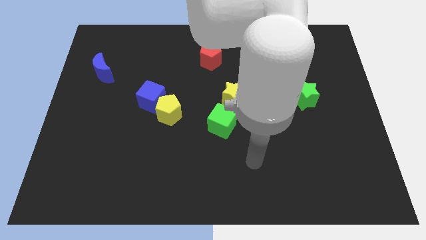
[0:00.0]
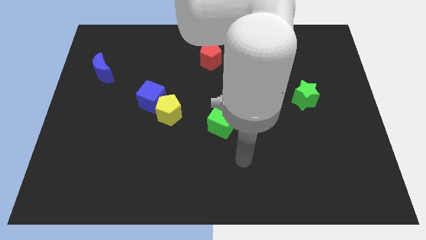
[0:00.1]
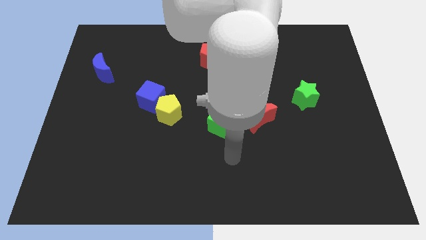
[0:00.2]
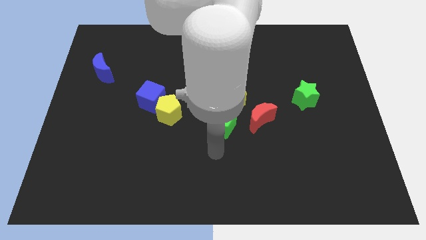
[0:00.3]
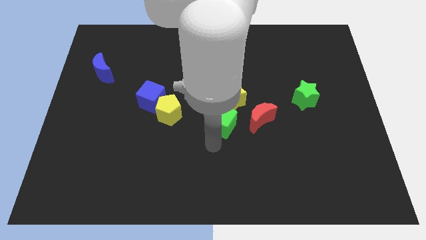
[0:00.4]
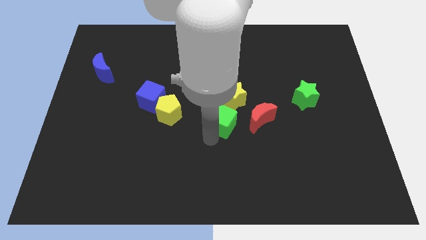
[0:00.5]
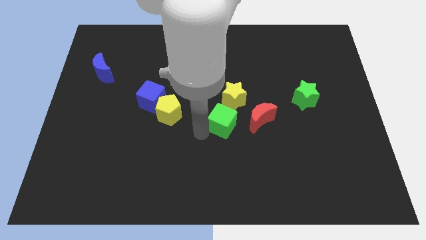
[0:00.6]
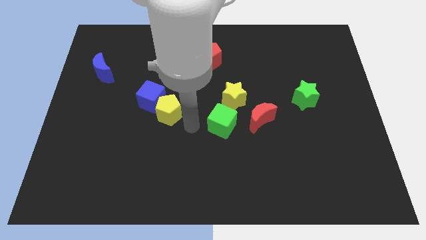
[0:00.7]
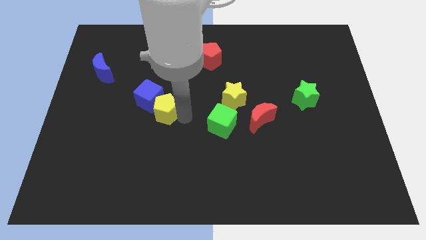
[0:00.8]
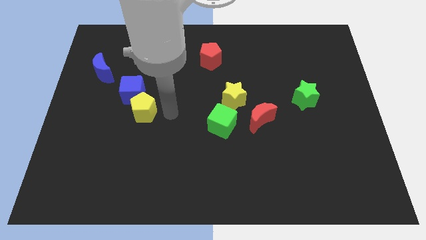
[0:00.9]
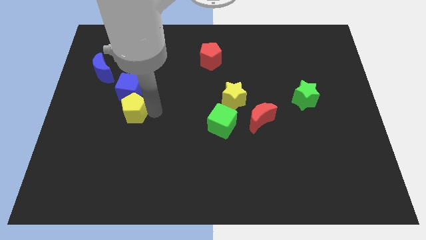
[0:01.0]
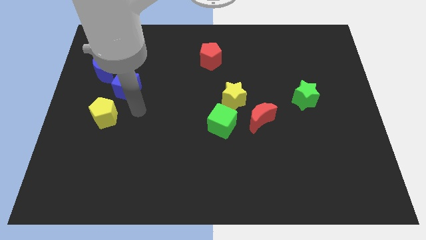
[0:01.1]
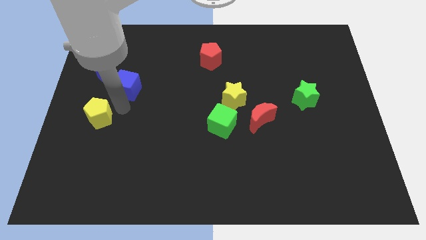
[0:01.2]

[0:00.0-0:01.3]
move the blue cube away from the yellow pentagon

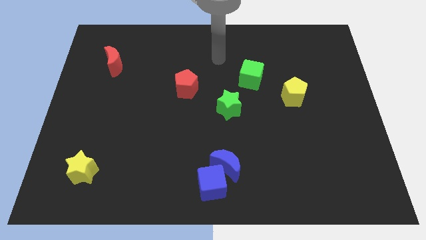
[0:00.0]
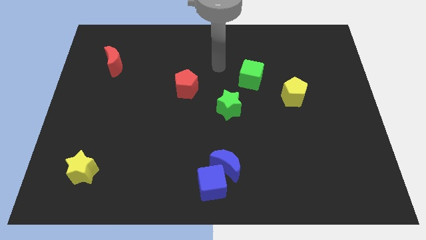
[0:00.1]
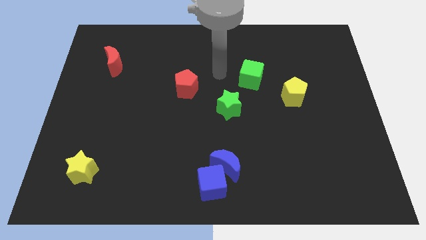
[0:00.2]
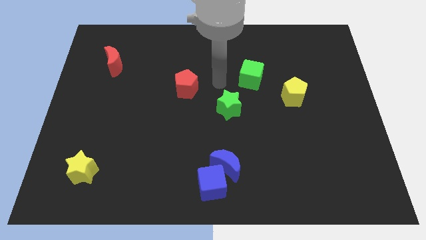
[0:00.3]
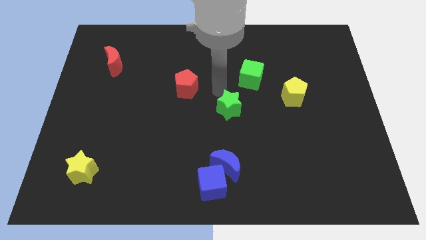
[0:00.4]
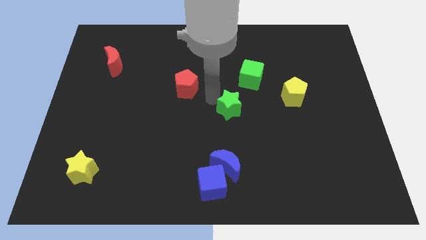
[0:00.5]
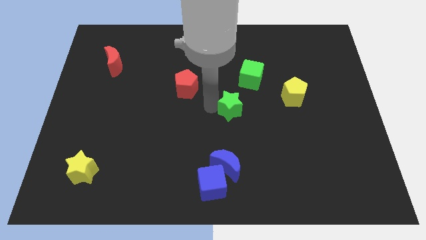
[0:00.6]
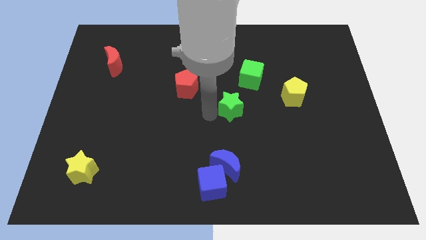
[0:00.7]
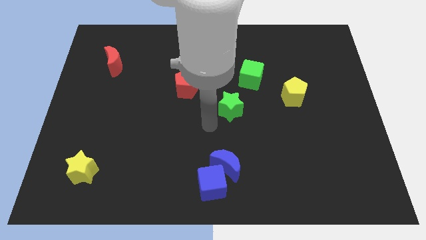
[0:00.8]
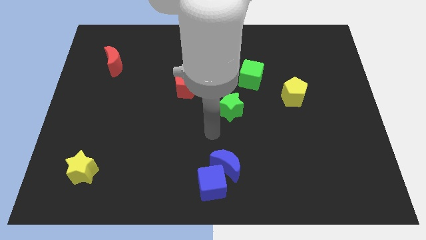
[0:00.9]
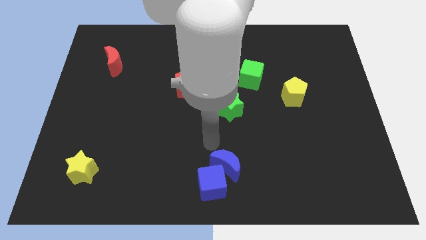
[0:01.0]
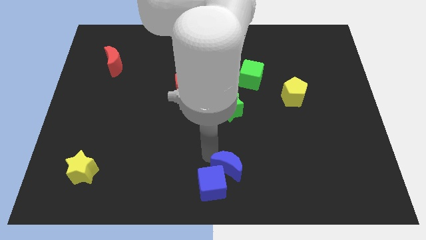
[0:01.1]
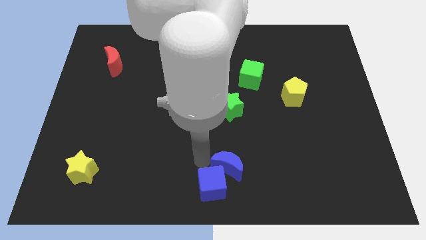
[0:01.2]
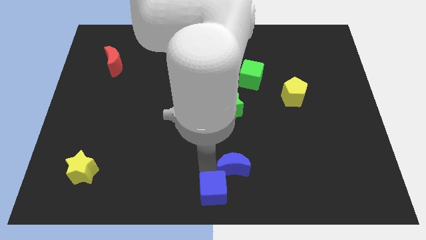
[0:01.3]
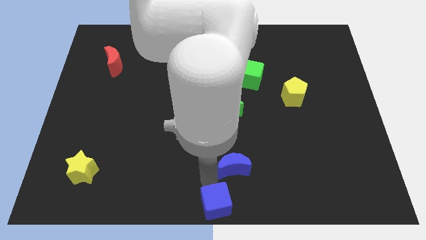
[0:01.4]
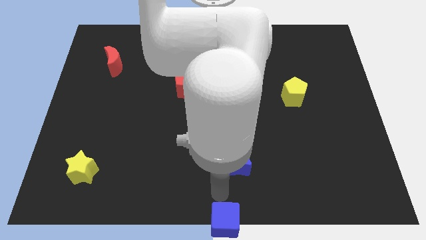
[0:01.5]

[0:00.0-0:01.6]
pull the blue moon apart from the blue cube

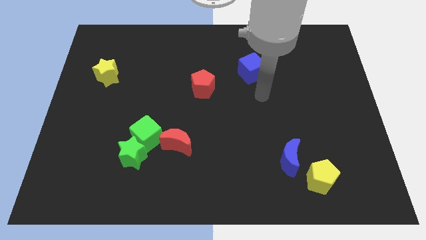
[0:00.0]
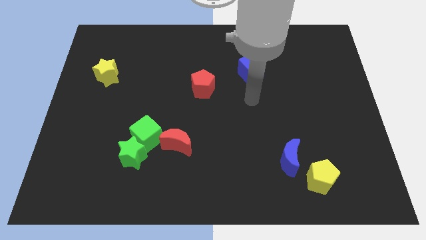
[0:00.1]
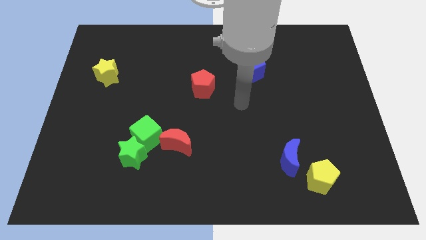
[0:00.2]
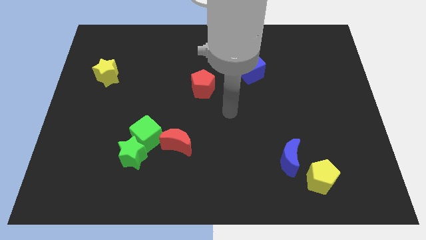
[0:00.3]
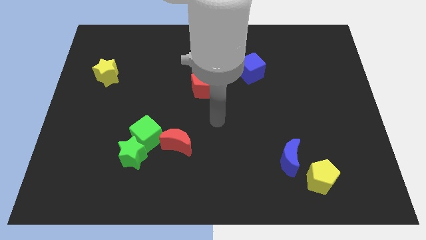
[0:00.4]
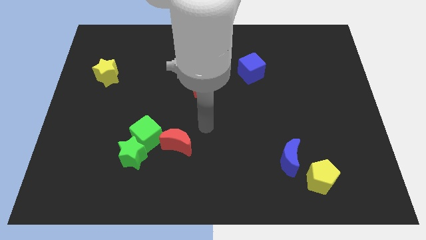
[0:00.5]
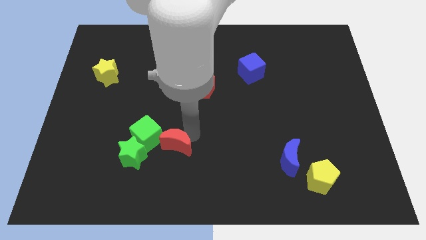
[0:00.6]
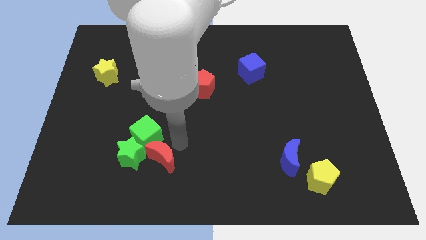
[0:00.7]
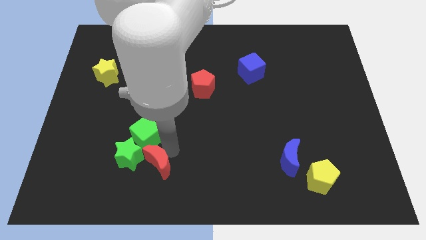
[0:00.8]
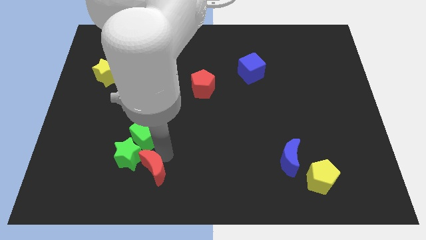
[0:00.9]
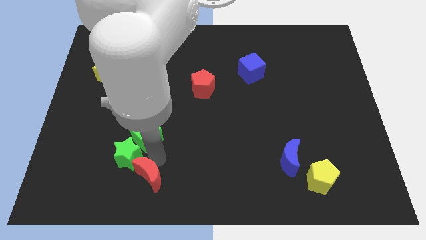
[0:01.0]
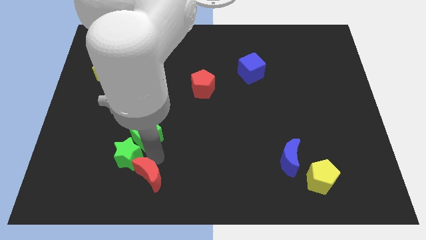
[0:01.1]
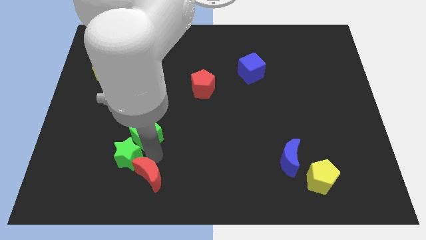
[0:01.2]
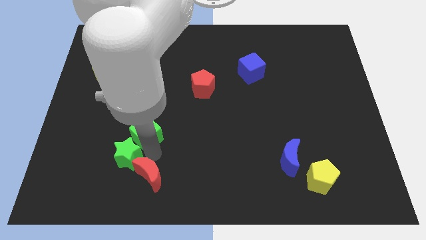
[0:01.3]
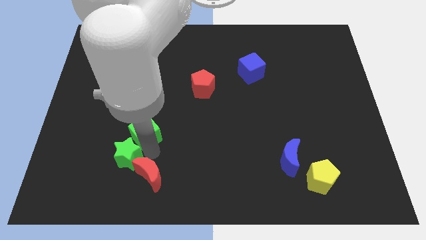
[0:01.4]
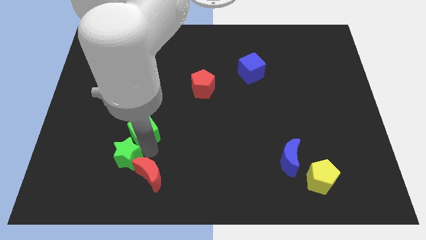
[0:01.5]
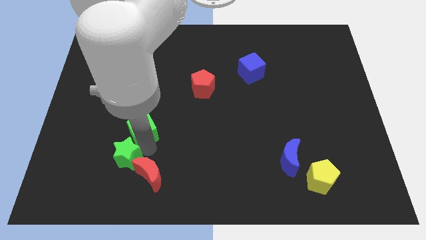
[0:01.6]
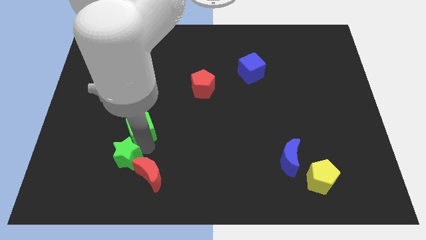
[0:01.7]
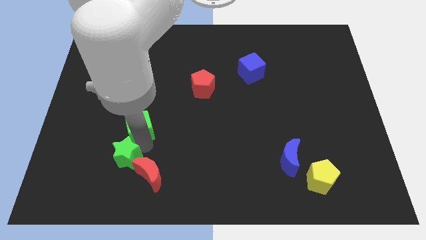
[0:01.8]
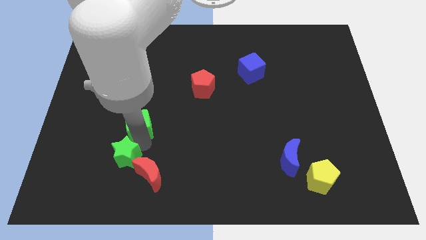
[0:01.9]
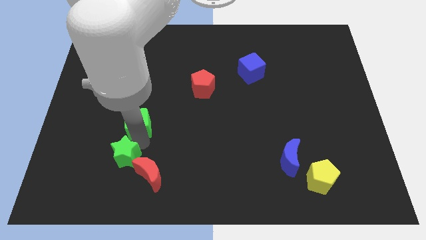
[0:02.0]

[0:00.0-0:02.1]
separate the green cube from the green star and red moon

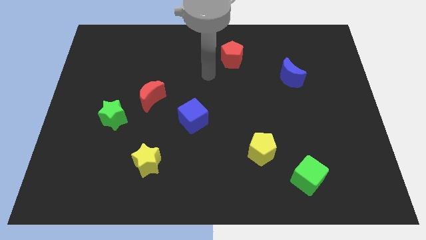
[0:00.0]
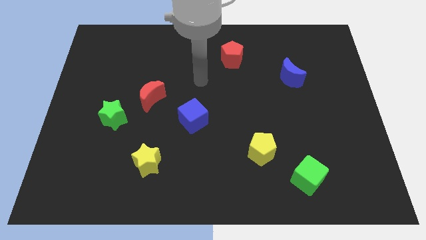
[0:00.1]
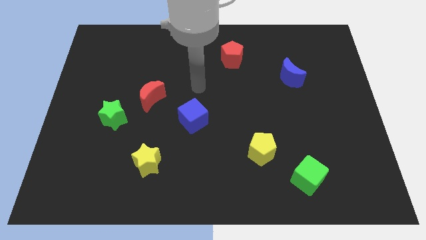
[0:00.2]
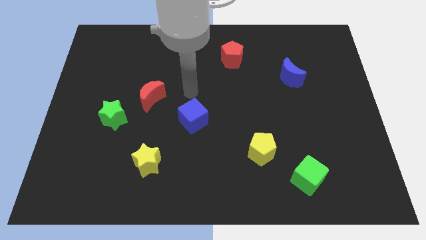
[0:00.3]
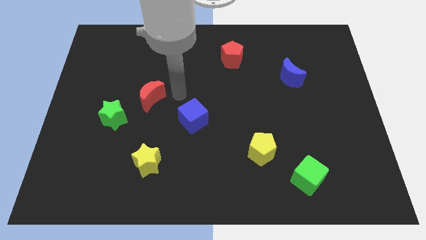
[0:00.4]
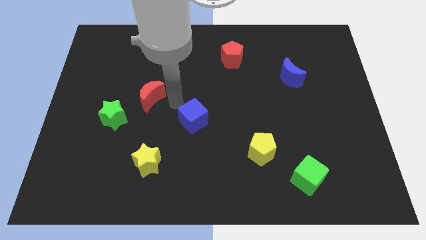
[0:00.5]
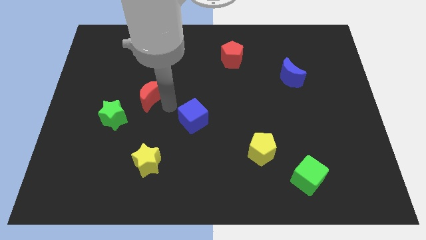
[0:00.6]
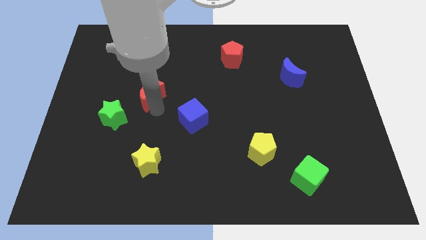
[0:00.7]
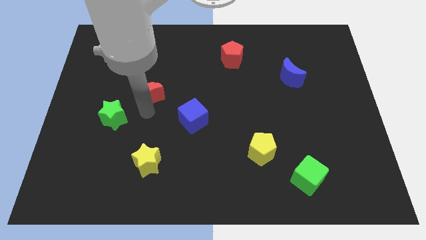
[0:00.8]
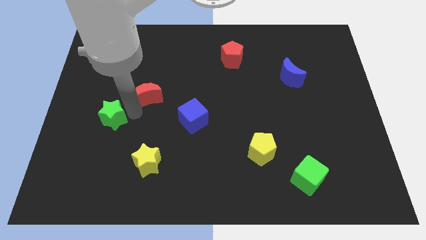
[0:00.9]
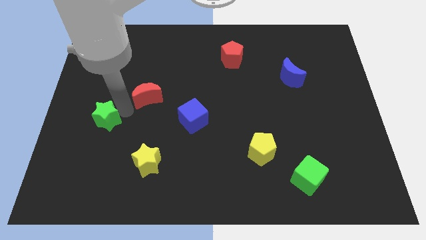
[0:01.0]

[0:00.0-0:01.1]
separate the red moon from the green star

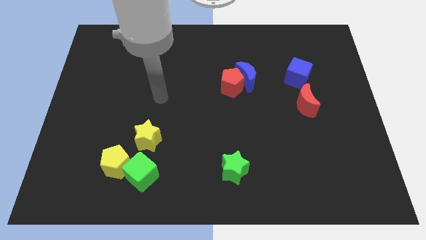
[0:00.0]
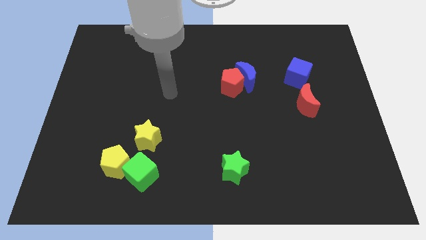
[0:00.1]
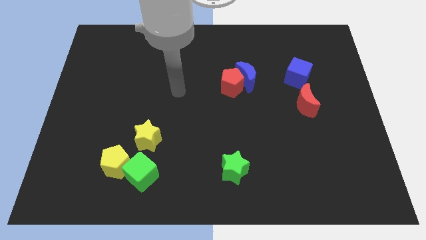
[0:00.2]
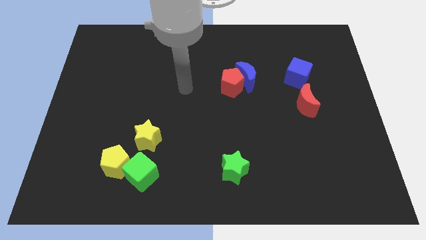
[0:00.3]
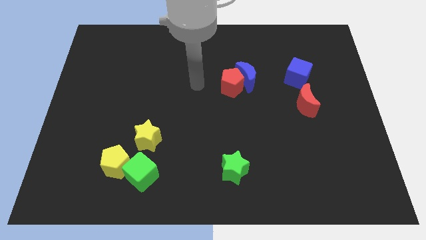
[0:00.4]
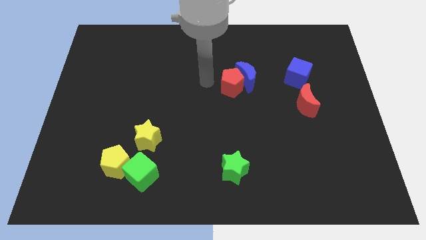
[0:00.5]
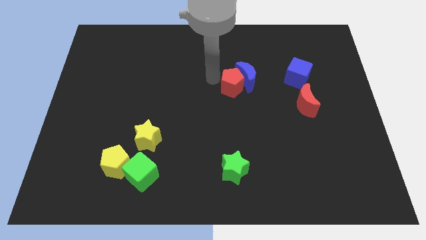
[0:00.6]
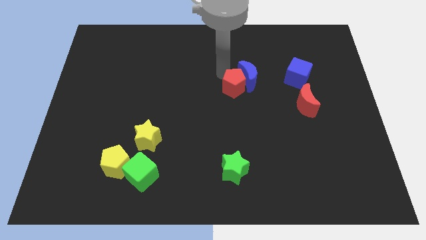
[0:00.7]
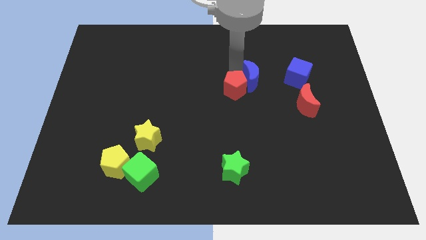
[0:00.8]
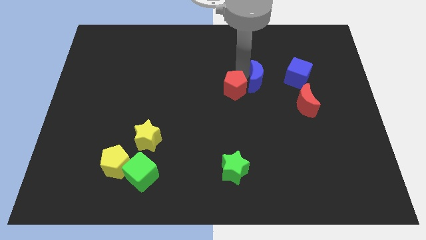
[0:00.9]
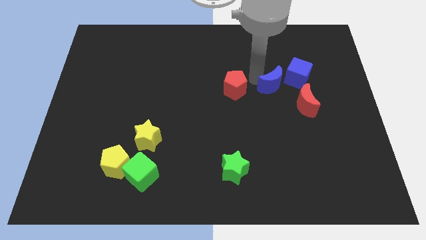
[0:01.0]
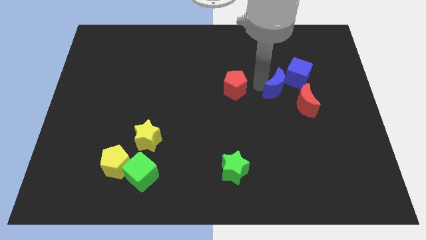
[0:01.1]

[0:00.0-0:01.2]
move the red pentagon away from the blue moon

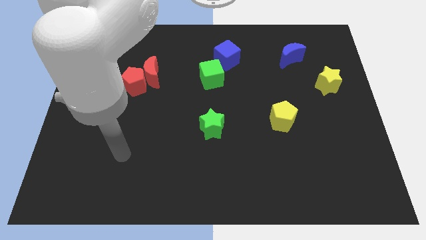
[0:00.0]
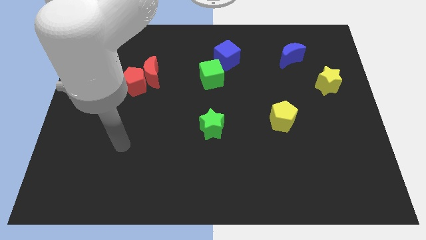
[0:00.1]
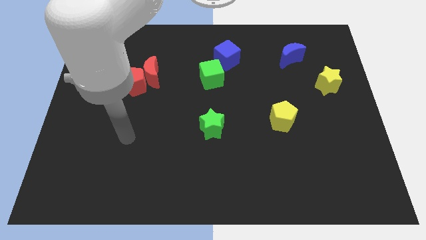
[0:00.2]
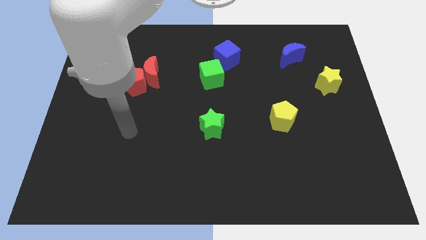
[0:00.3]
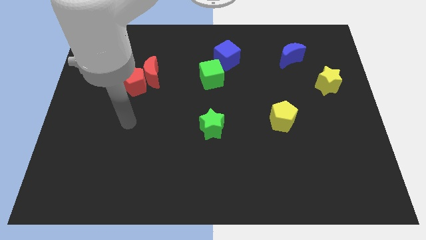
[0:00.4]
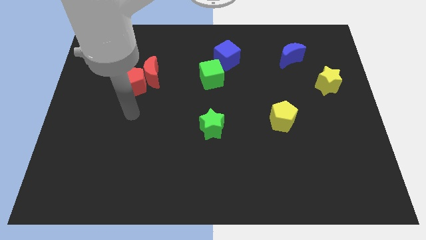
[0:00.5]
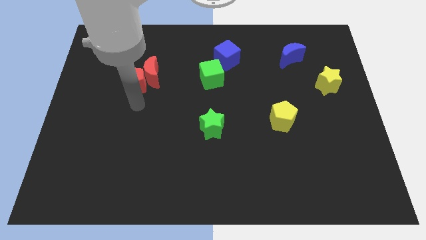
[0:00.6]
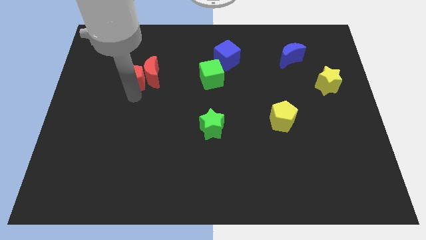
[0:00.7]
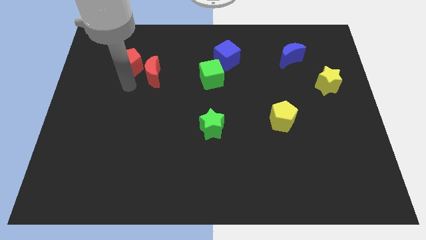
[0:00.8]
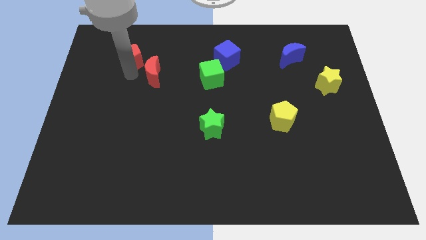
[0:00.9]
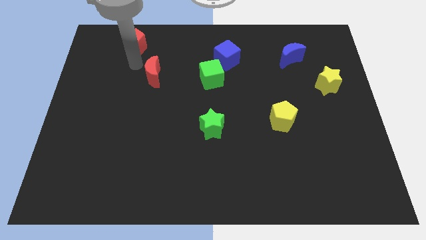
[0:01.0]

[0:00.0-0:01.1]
pull the red moon apart from the red pentagon

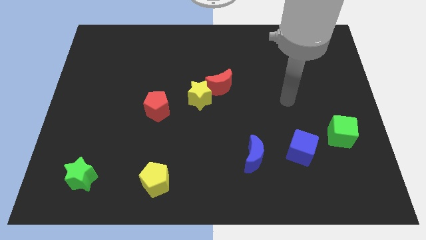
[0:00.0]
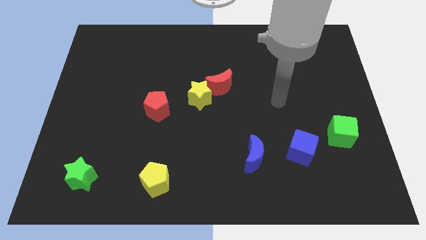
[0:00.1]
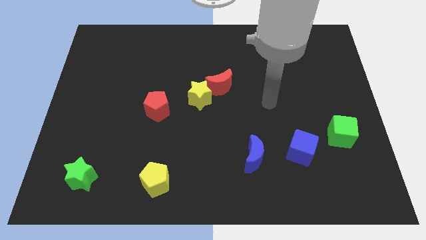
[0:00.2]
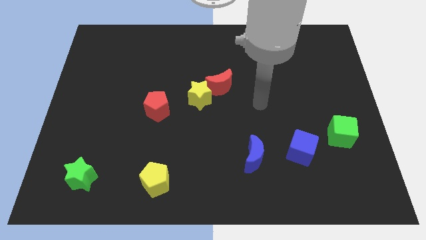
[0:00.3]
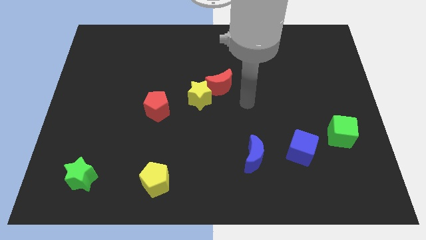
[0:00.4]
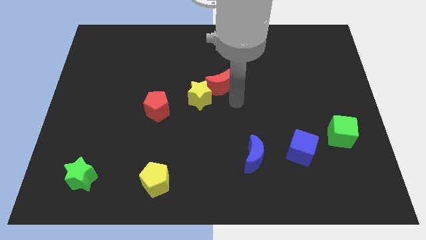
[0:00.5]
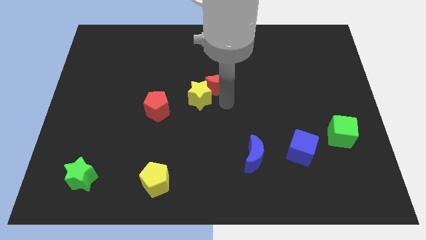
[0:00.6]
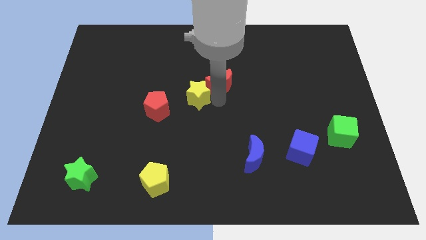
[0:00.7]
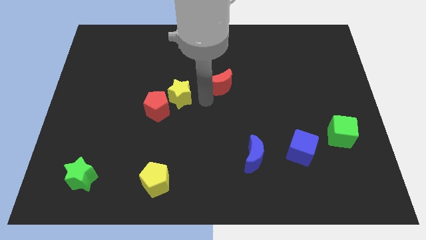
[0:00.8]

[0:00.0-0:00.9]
separate the red moon from the yellow star
